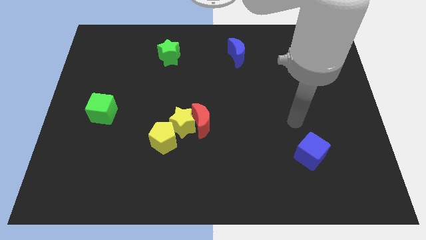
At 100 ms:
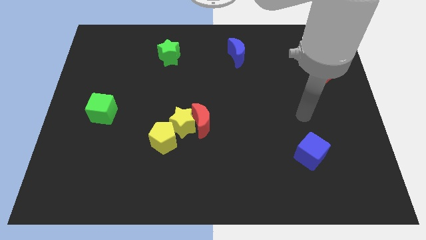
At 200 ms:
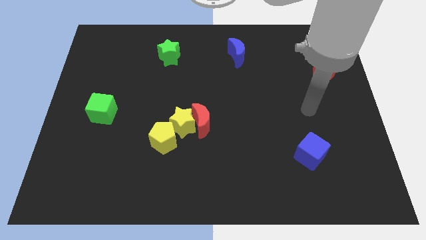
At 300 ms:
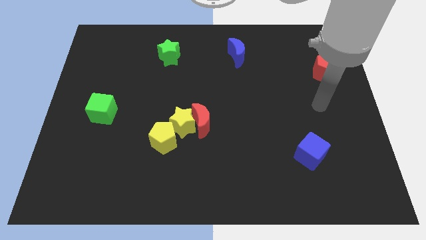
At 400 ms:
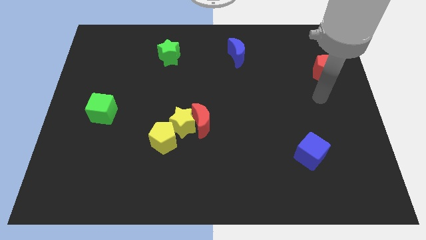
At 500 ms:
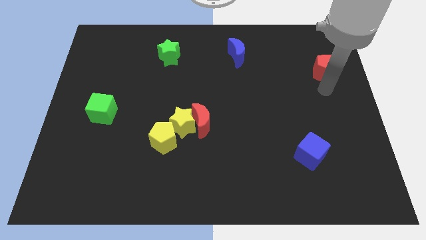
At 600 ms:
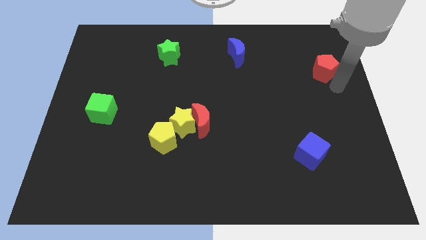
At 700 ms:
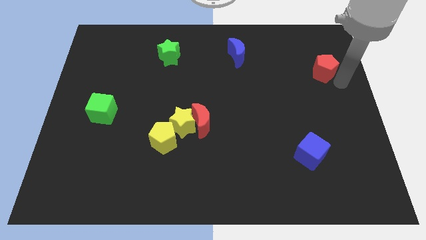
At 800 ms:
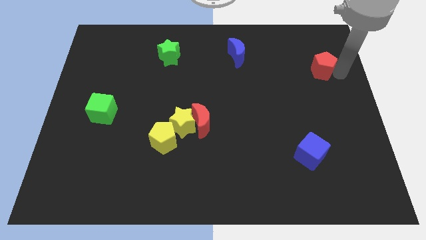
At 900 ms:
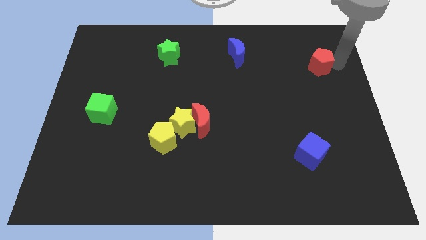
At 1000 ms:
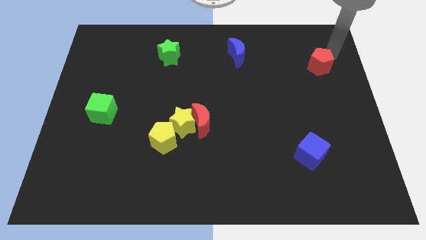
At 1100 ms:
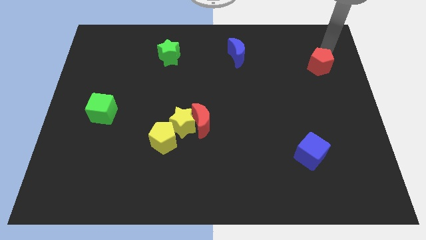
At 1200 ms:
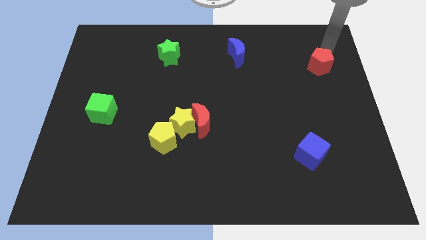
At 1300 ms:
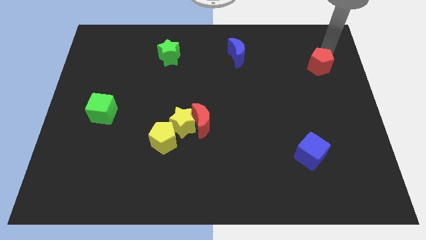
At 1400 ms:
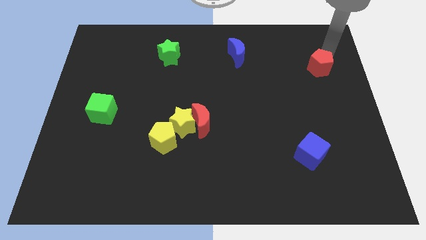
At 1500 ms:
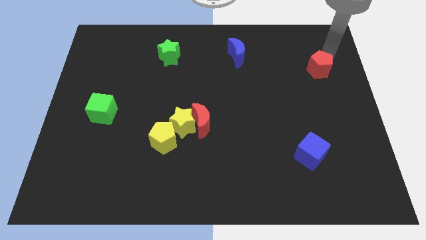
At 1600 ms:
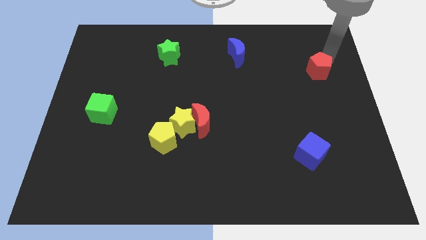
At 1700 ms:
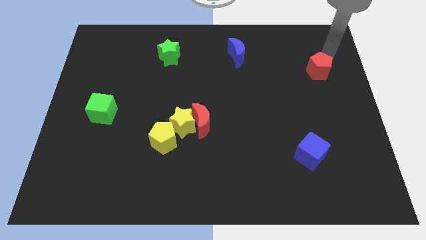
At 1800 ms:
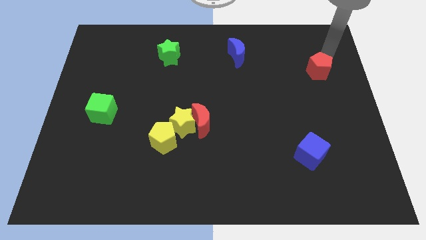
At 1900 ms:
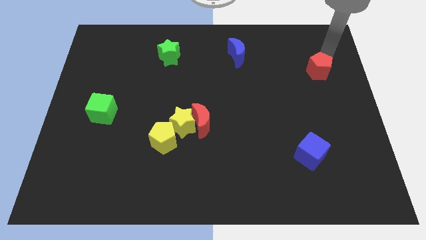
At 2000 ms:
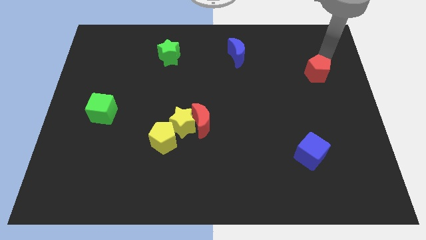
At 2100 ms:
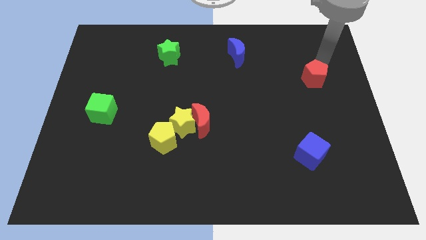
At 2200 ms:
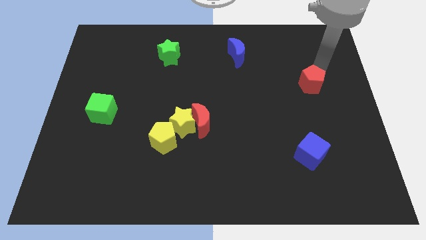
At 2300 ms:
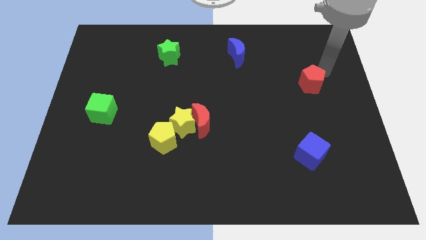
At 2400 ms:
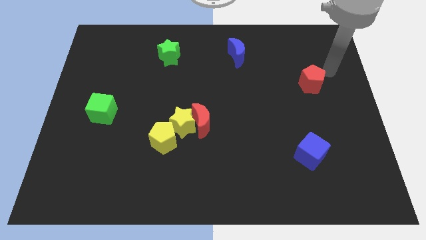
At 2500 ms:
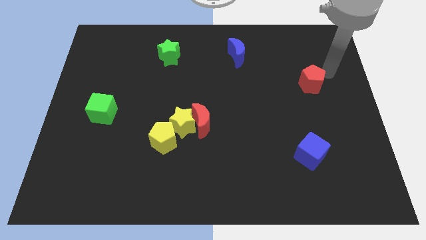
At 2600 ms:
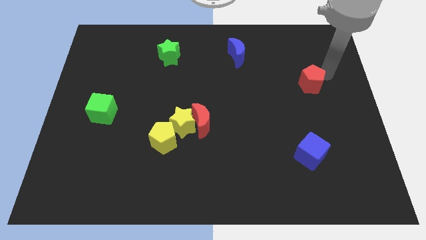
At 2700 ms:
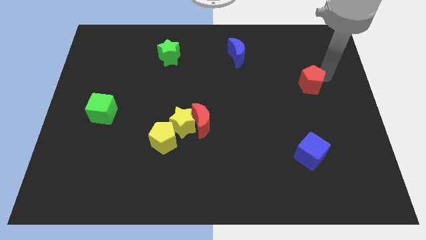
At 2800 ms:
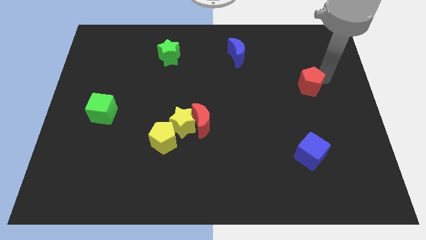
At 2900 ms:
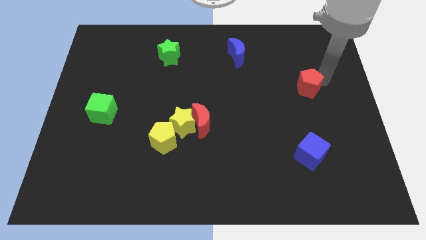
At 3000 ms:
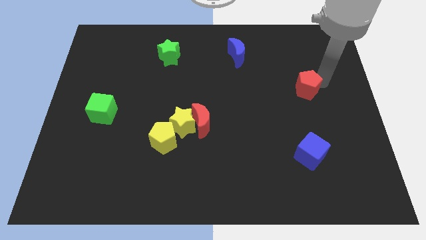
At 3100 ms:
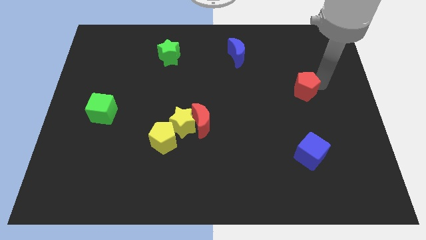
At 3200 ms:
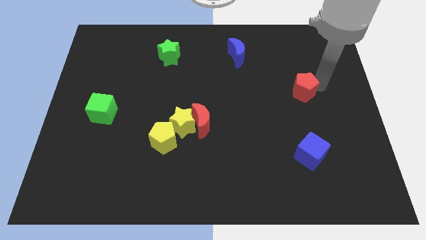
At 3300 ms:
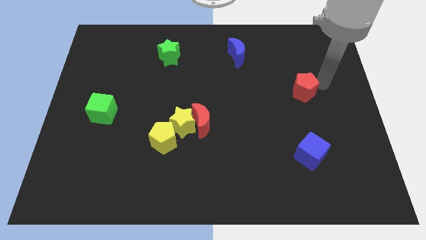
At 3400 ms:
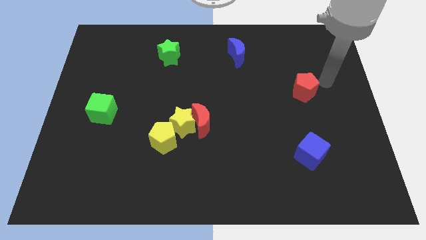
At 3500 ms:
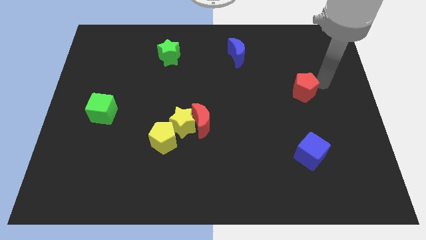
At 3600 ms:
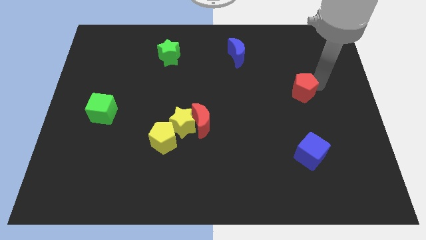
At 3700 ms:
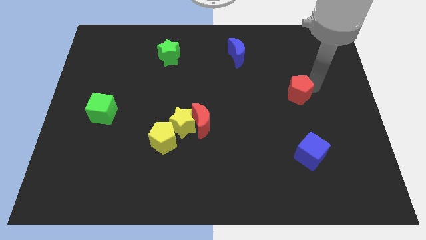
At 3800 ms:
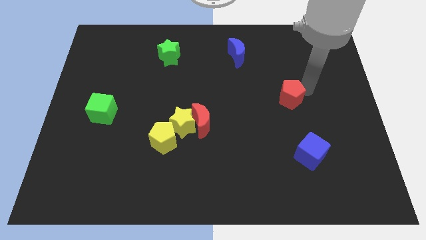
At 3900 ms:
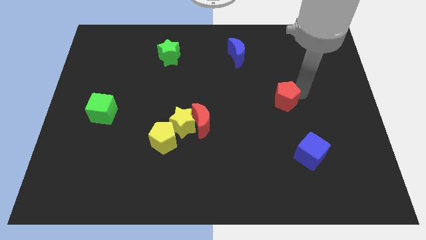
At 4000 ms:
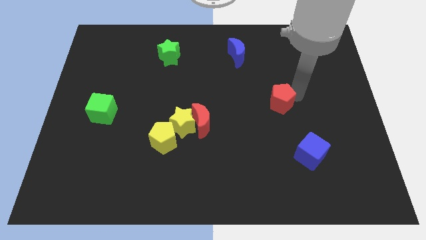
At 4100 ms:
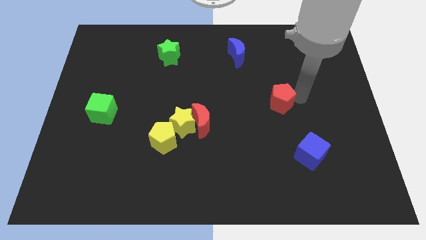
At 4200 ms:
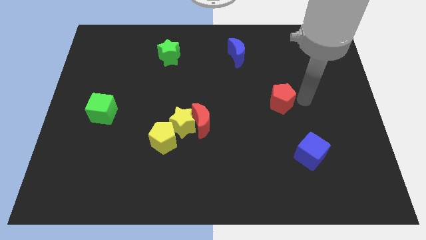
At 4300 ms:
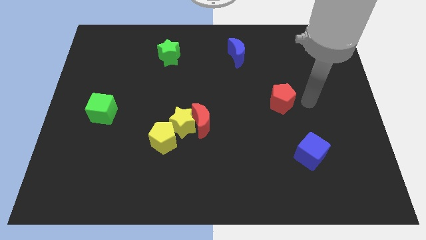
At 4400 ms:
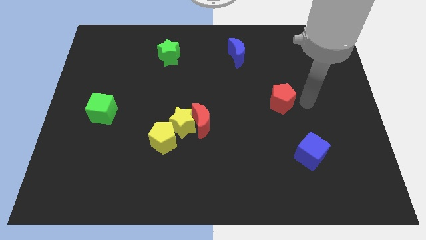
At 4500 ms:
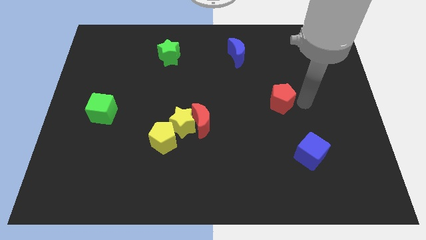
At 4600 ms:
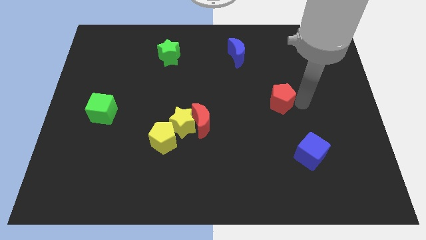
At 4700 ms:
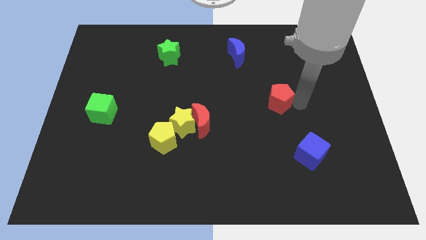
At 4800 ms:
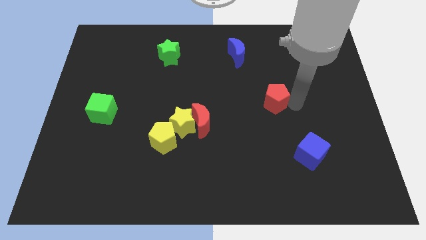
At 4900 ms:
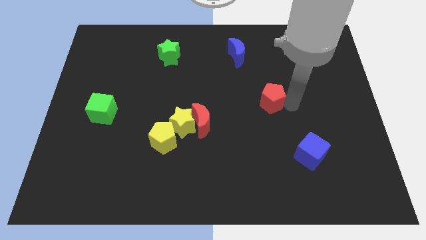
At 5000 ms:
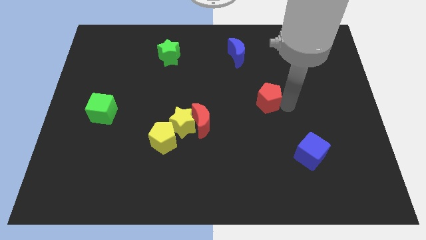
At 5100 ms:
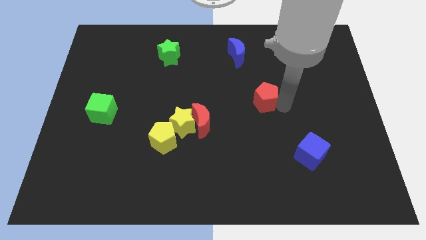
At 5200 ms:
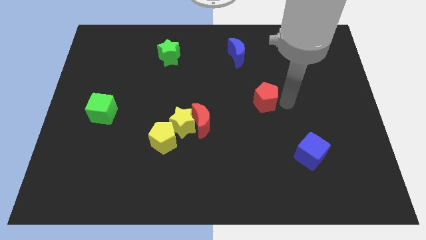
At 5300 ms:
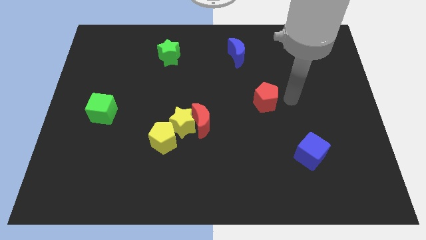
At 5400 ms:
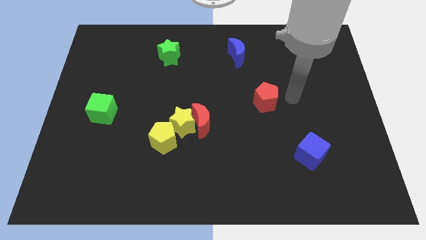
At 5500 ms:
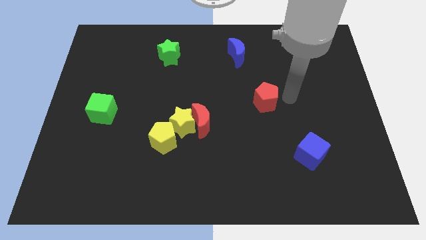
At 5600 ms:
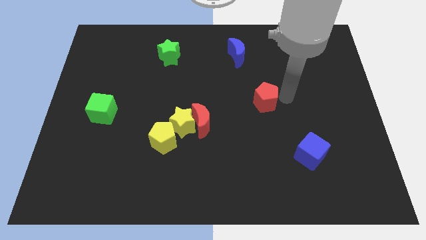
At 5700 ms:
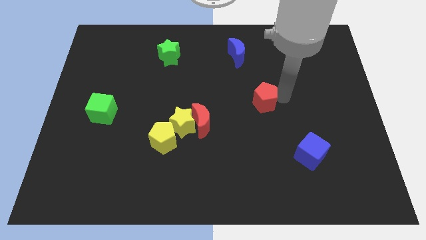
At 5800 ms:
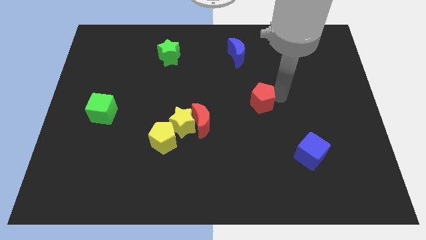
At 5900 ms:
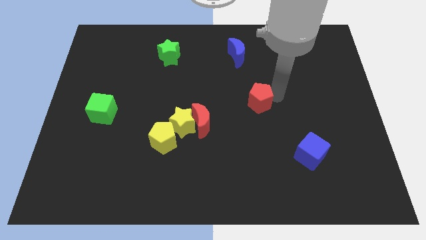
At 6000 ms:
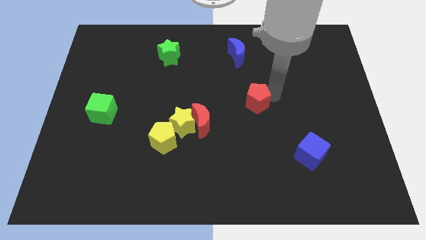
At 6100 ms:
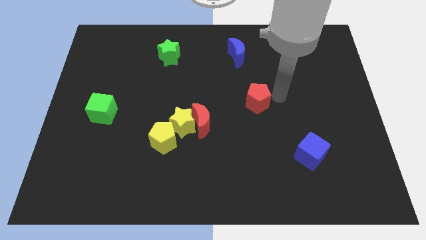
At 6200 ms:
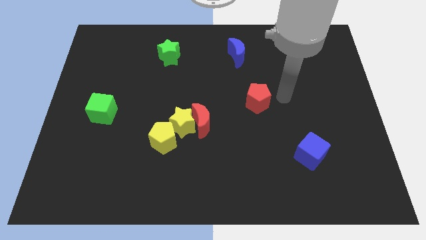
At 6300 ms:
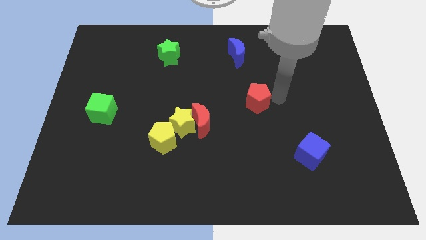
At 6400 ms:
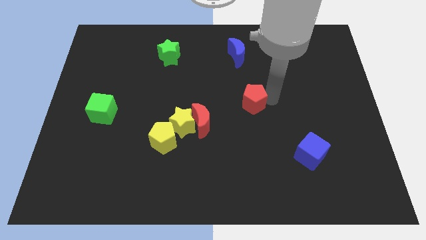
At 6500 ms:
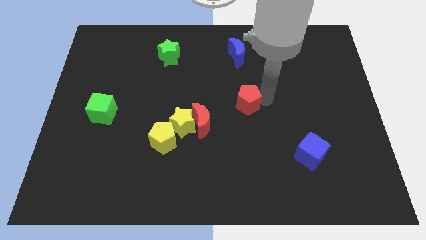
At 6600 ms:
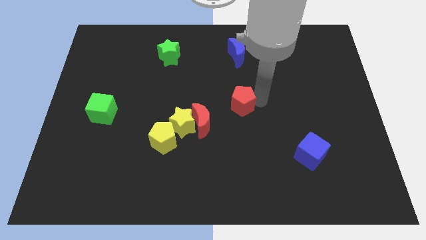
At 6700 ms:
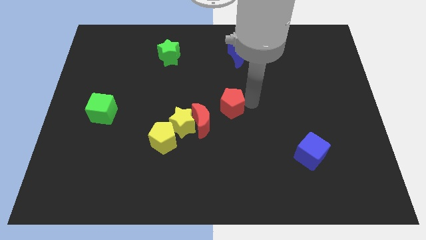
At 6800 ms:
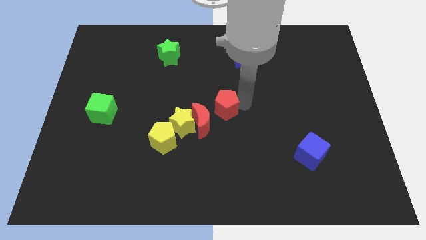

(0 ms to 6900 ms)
slide the red pentagon to the top right of the yellow star

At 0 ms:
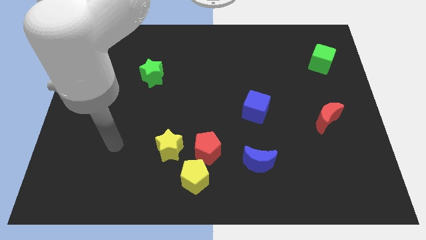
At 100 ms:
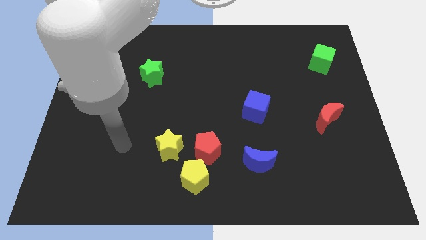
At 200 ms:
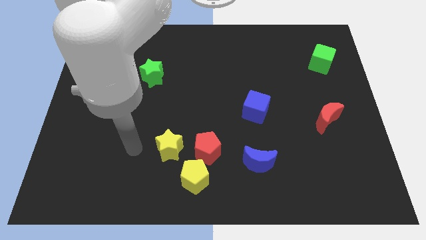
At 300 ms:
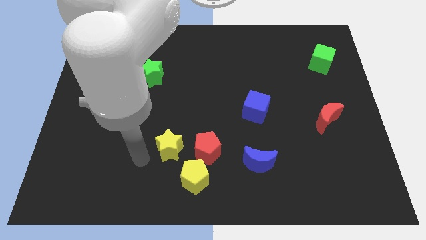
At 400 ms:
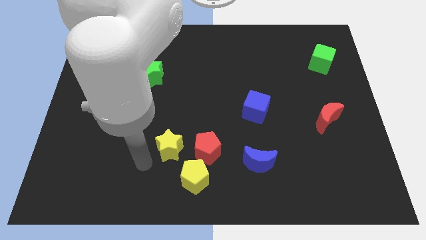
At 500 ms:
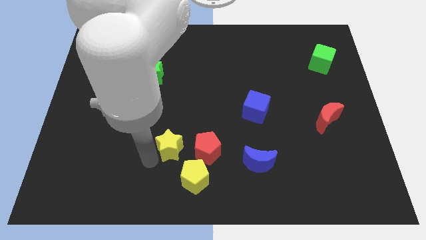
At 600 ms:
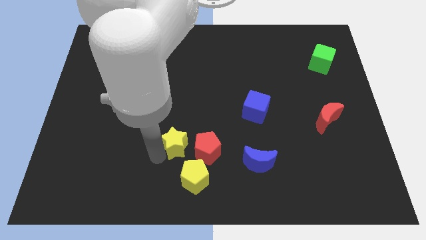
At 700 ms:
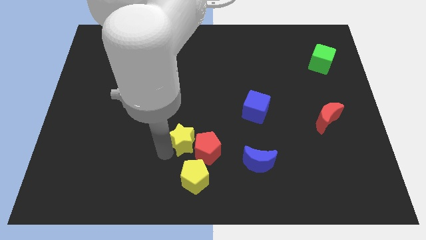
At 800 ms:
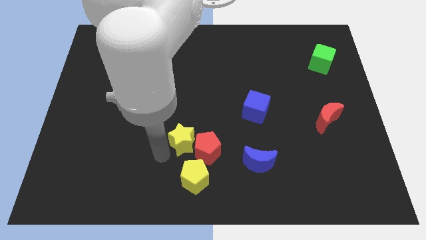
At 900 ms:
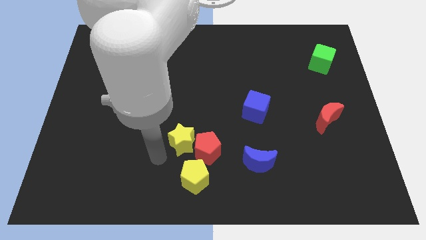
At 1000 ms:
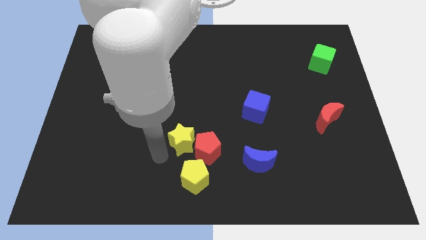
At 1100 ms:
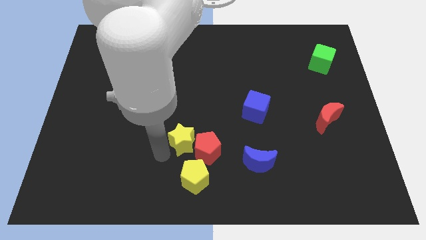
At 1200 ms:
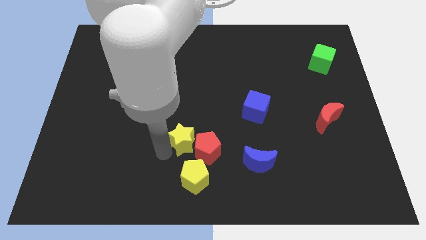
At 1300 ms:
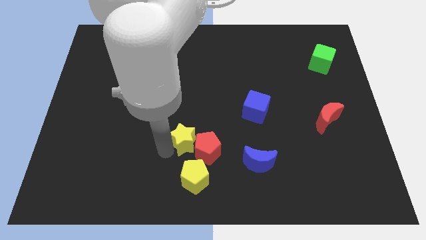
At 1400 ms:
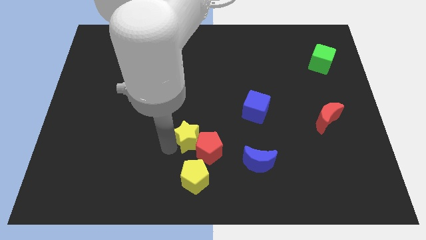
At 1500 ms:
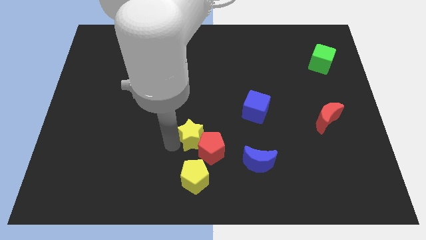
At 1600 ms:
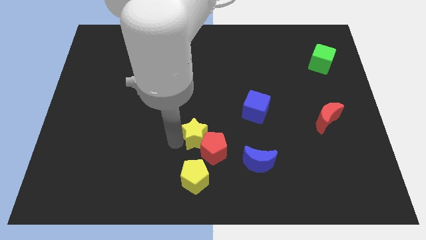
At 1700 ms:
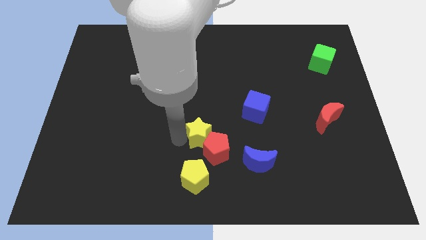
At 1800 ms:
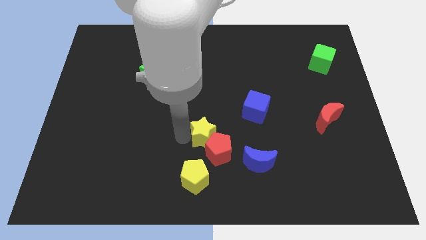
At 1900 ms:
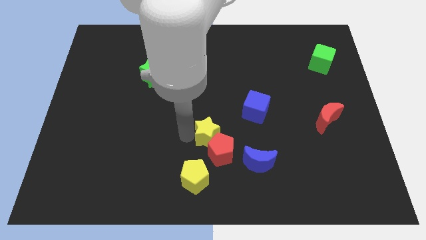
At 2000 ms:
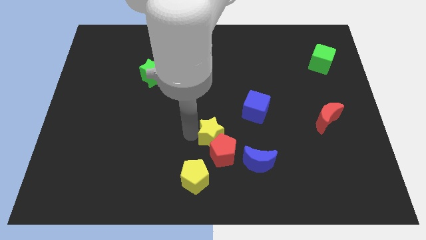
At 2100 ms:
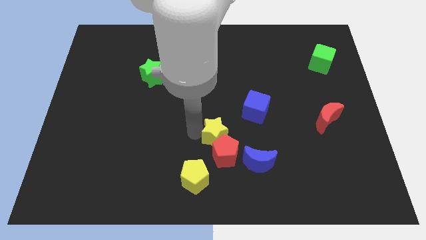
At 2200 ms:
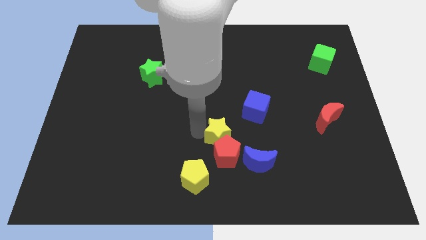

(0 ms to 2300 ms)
put the yellow star diagonally up and to the right of the red pentagon
